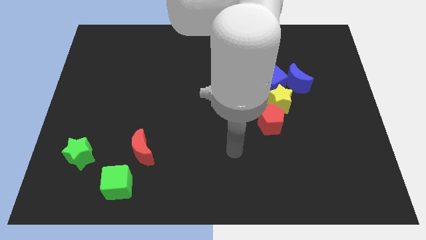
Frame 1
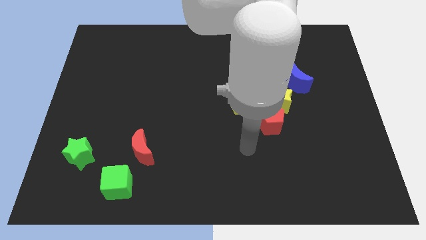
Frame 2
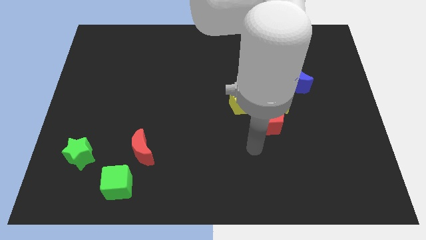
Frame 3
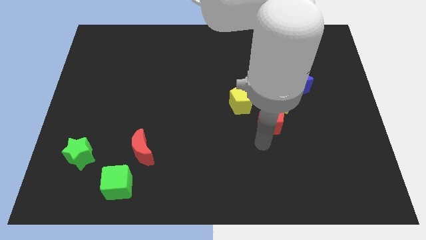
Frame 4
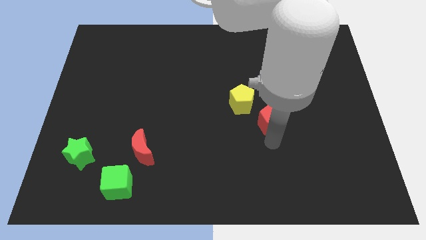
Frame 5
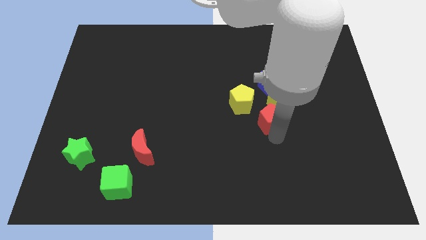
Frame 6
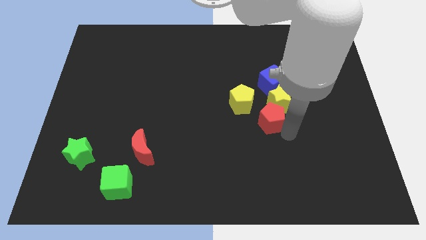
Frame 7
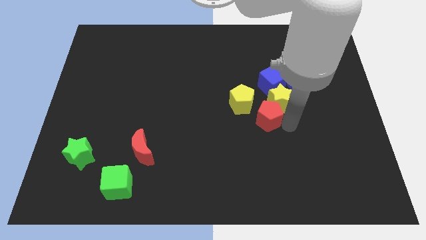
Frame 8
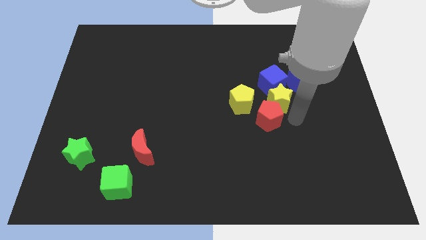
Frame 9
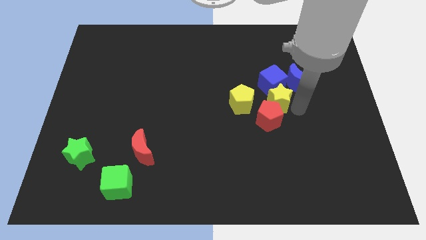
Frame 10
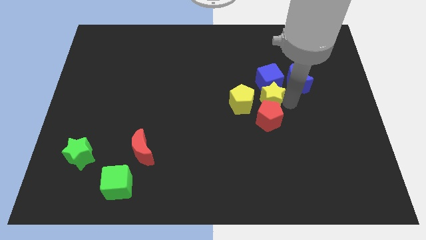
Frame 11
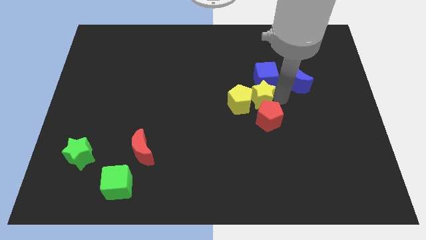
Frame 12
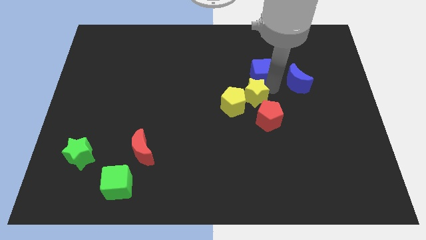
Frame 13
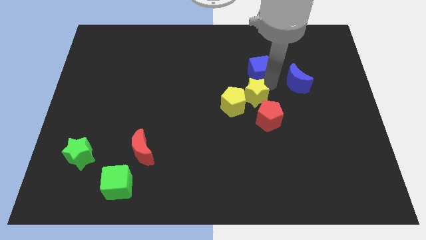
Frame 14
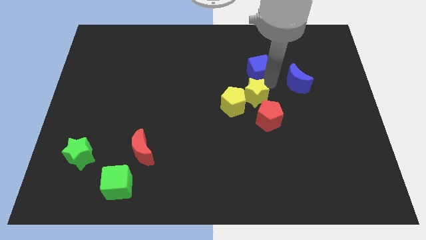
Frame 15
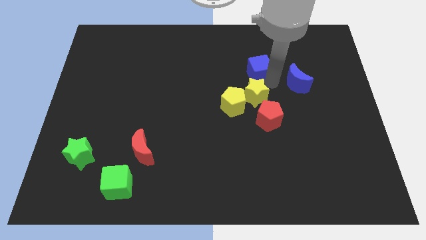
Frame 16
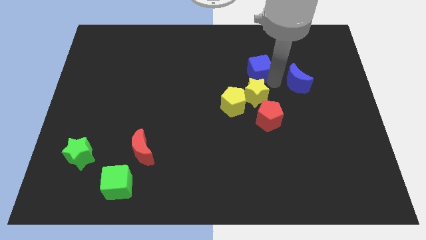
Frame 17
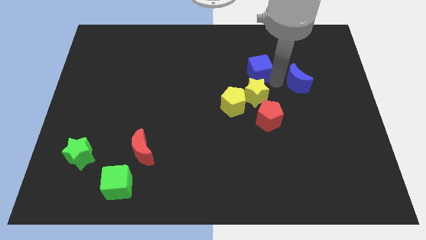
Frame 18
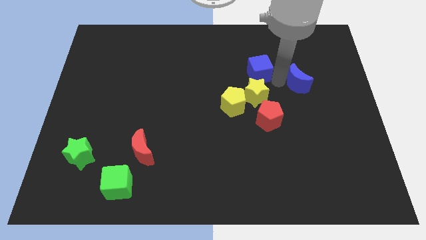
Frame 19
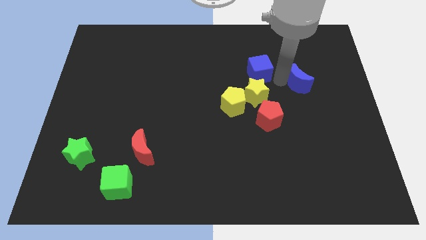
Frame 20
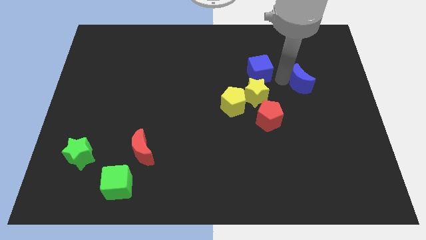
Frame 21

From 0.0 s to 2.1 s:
pull the blue moon apart from the blue cube and yellow star

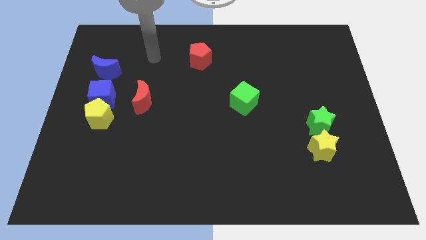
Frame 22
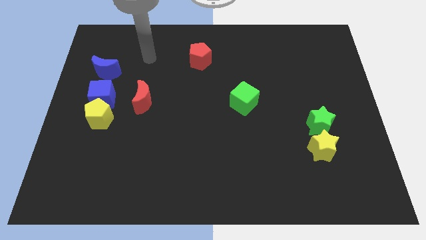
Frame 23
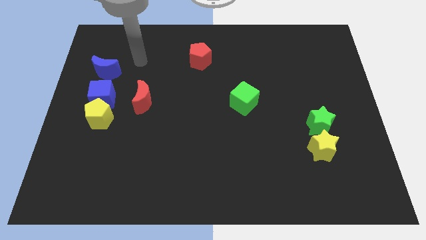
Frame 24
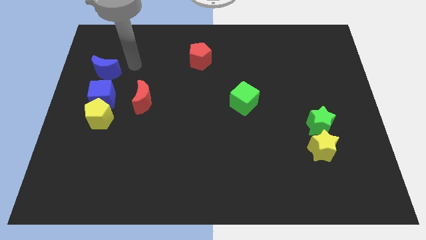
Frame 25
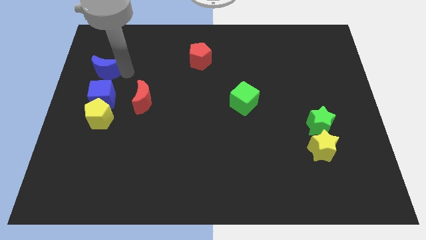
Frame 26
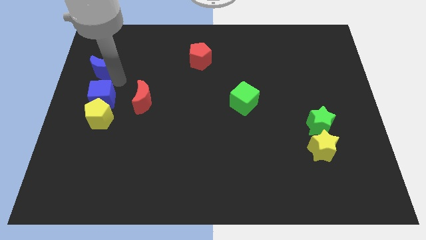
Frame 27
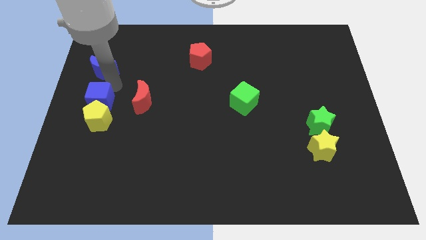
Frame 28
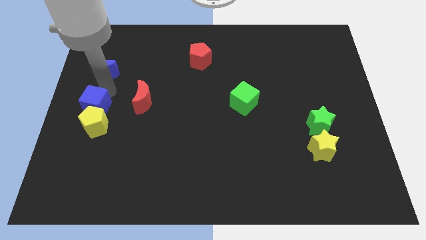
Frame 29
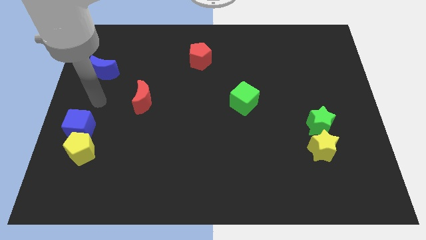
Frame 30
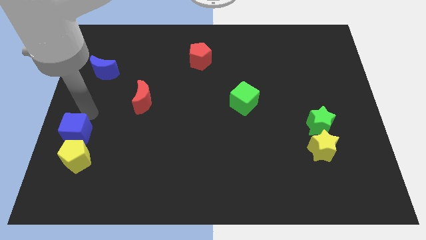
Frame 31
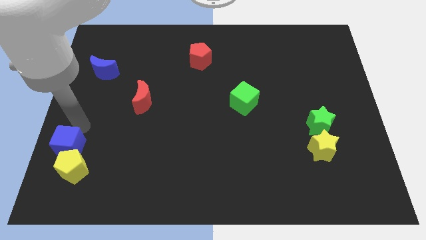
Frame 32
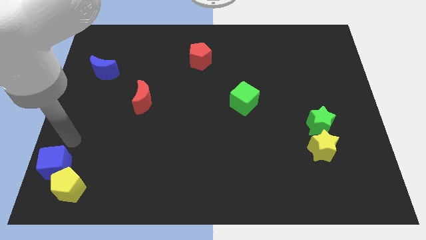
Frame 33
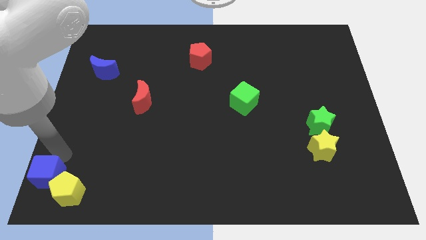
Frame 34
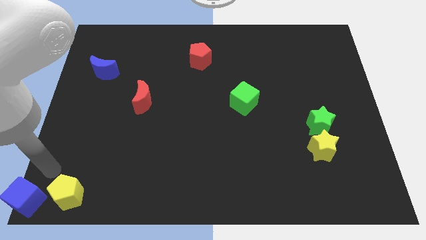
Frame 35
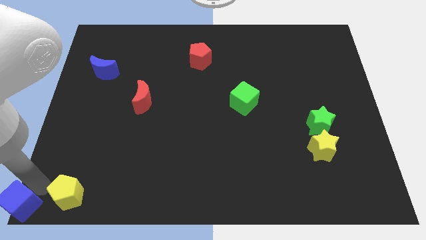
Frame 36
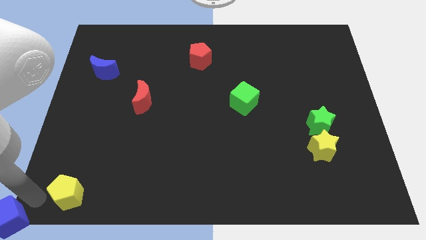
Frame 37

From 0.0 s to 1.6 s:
separate the yellow pentagon from the blue cube

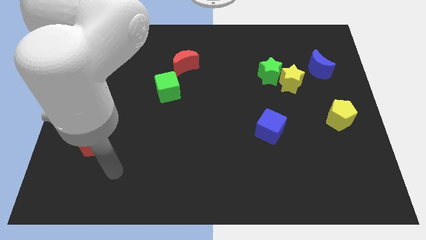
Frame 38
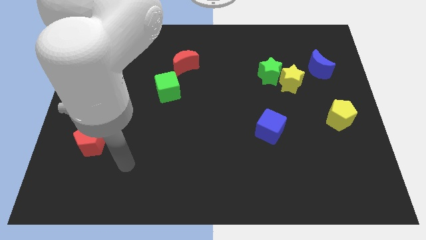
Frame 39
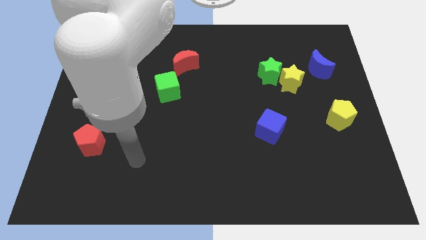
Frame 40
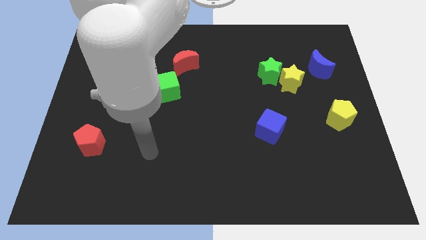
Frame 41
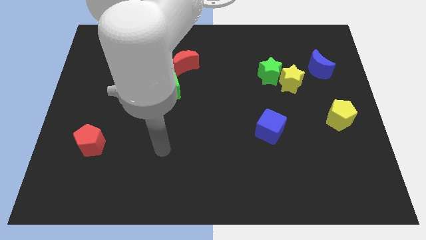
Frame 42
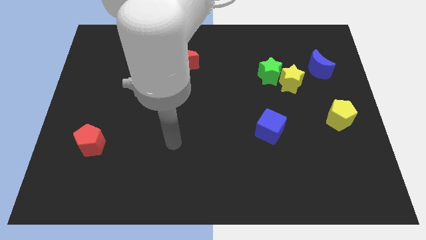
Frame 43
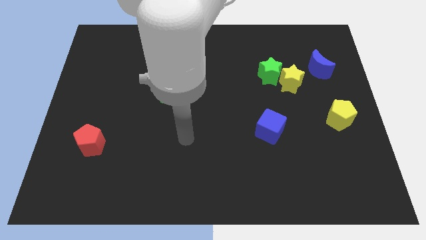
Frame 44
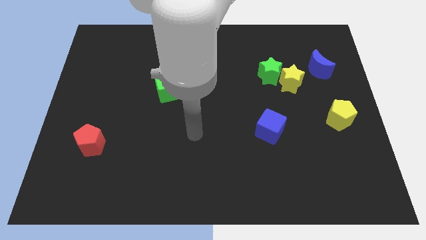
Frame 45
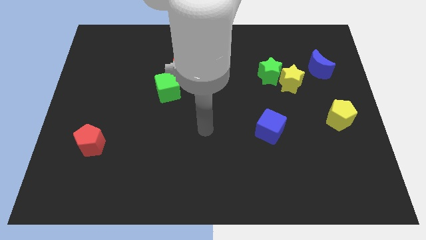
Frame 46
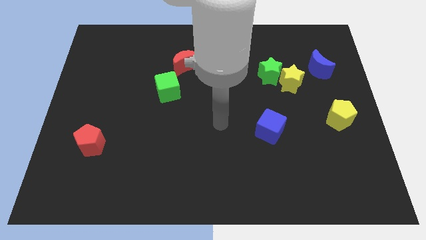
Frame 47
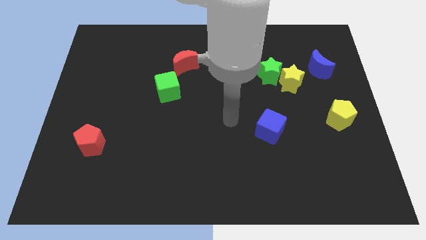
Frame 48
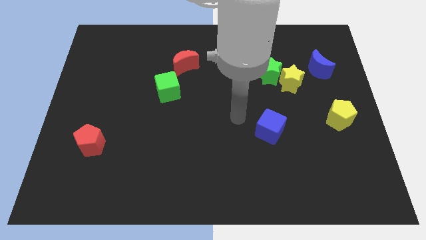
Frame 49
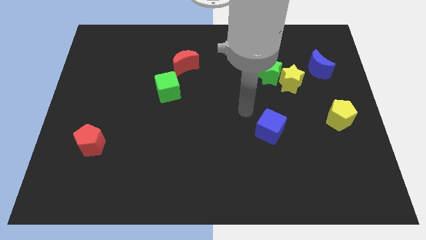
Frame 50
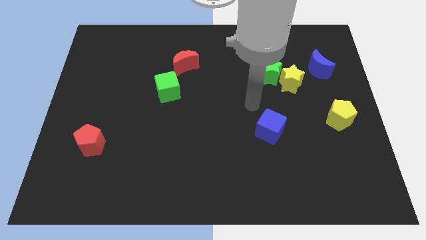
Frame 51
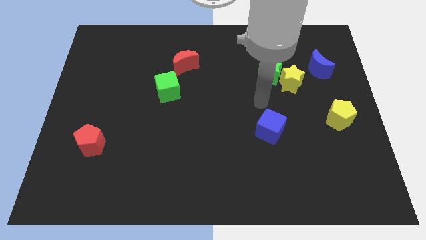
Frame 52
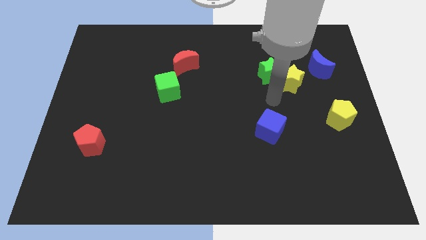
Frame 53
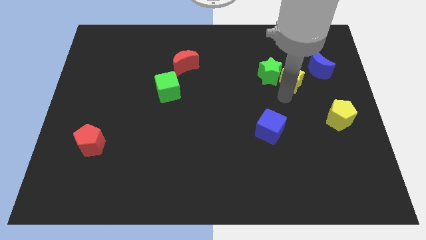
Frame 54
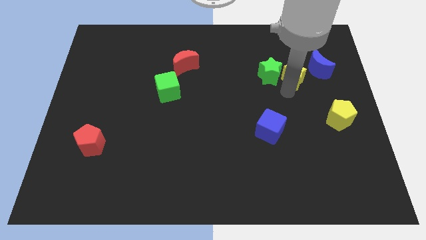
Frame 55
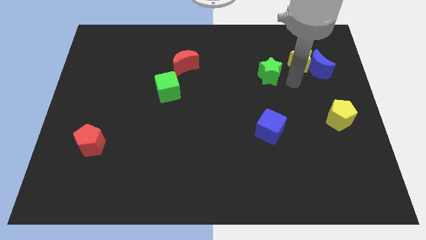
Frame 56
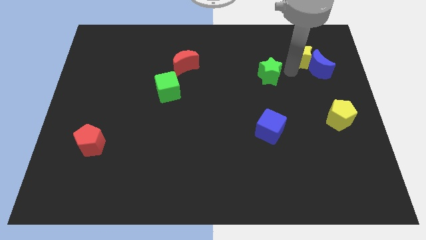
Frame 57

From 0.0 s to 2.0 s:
pull the green star apart from the yellow star

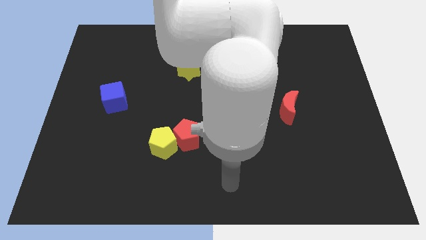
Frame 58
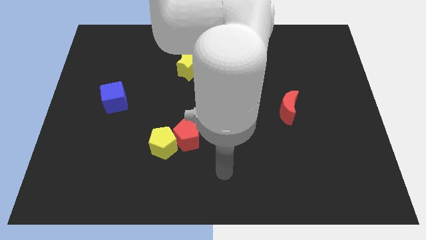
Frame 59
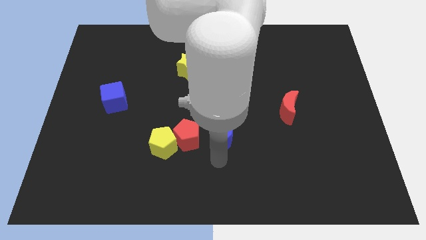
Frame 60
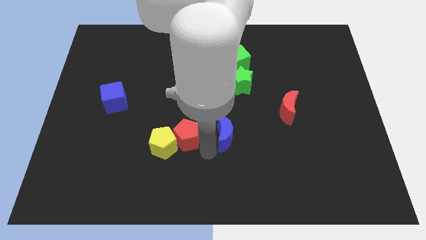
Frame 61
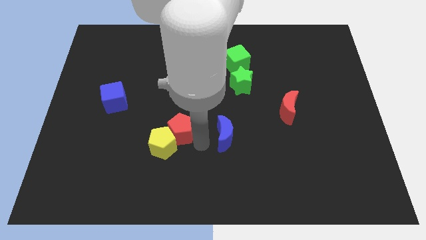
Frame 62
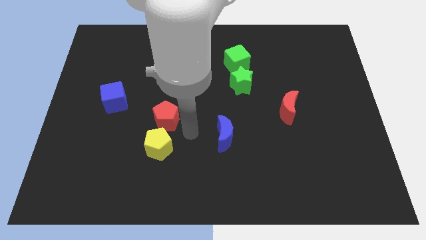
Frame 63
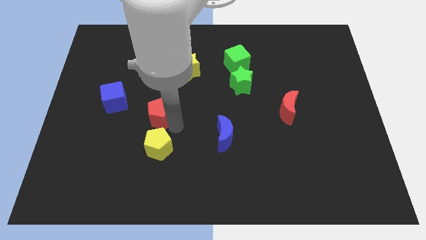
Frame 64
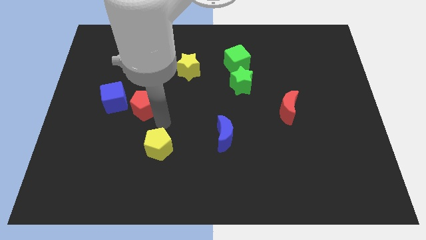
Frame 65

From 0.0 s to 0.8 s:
move the yellow pentagon away from the red pentagon

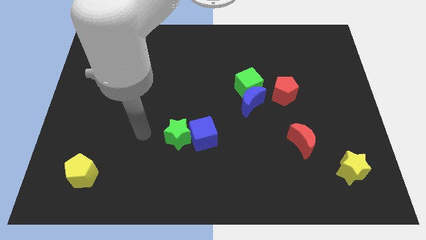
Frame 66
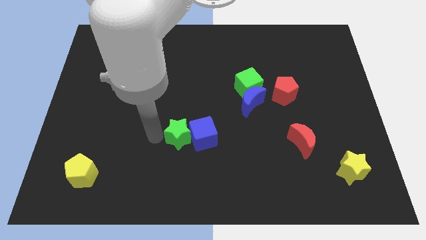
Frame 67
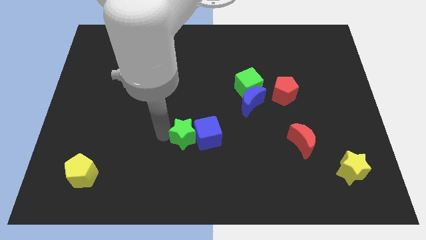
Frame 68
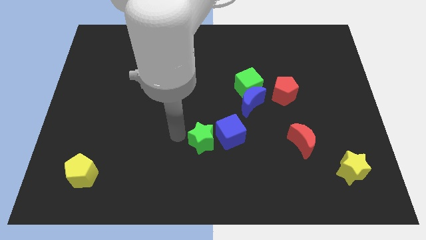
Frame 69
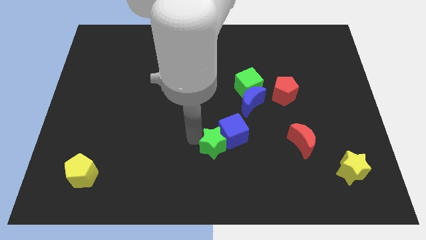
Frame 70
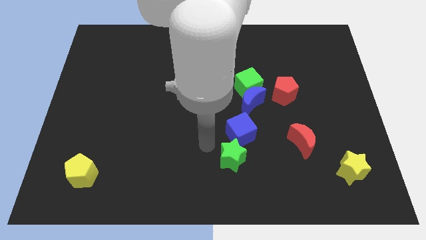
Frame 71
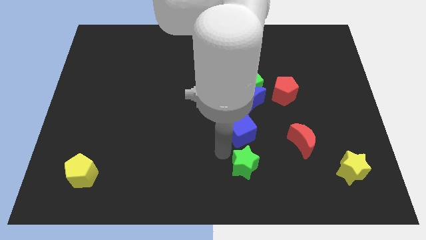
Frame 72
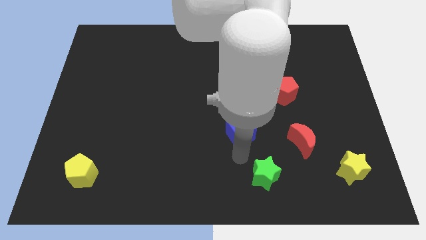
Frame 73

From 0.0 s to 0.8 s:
pull the blue cube apart from the green star

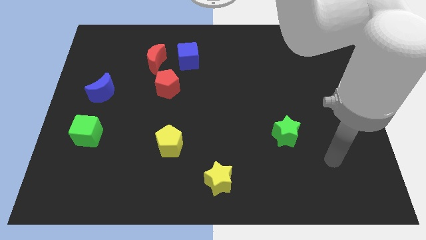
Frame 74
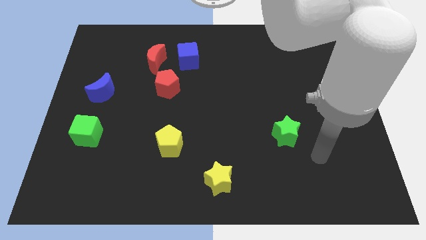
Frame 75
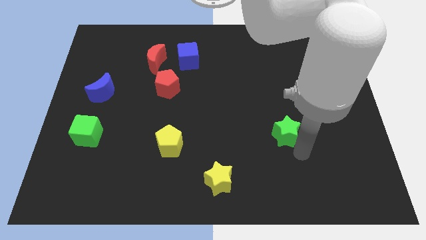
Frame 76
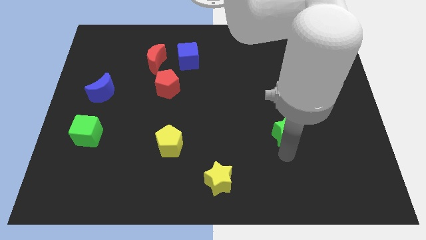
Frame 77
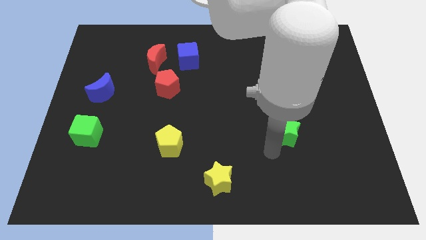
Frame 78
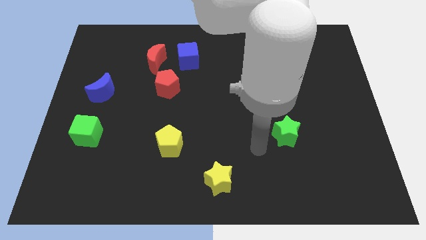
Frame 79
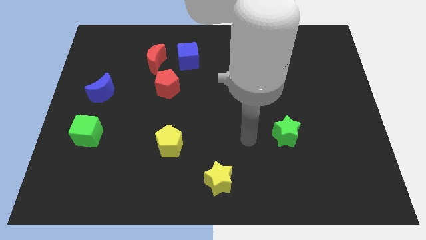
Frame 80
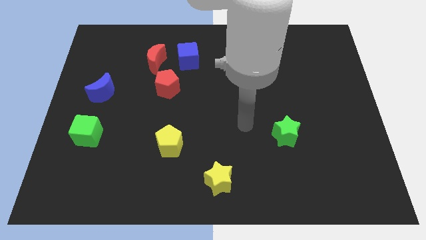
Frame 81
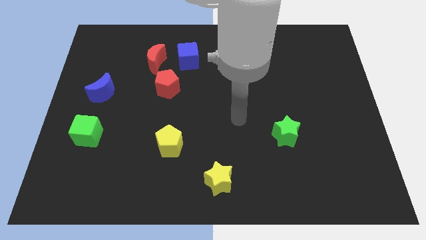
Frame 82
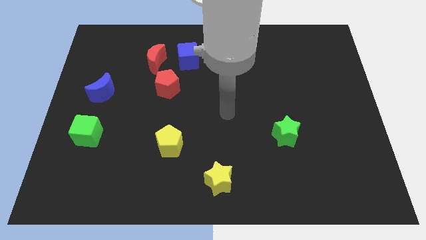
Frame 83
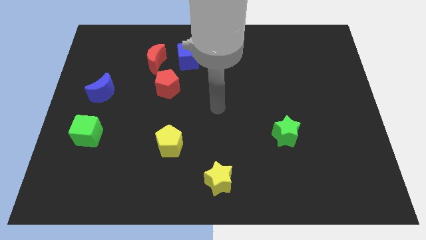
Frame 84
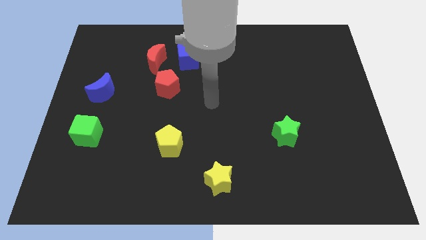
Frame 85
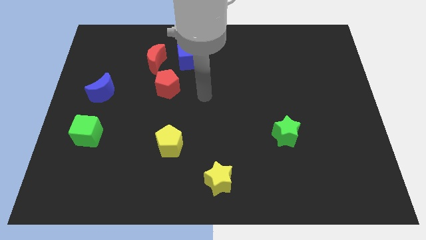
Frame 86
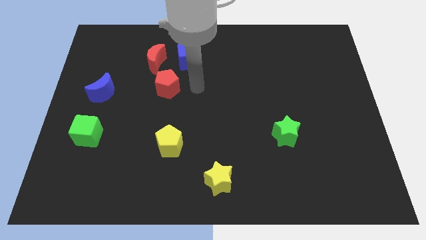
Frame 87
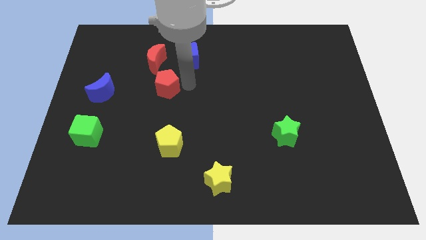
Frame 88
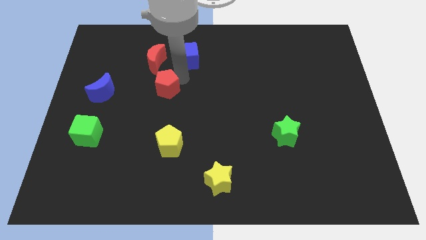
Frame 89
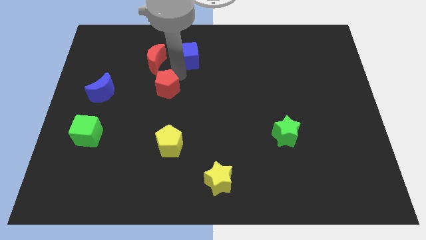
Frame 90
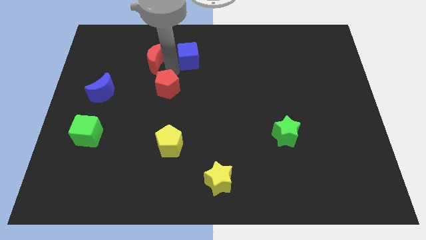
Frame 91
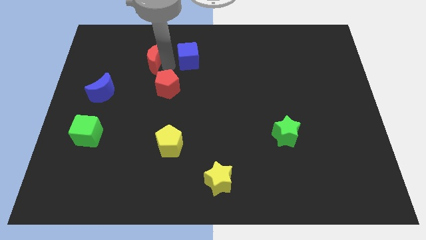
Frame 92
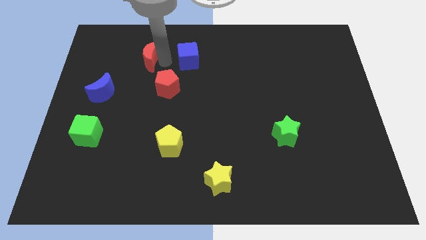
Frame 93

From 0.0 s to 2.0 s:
pull the blue cube apart from the red moon
